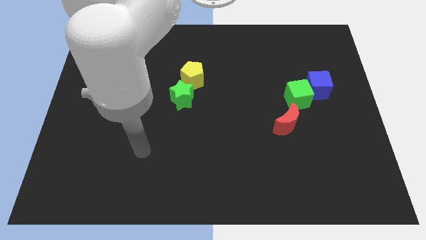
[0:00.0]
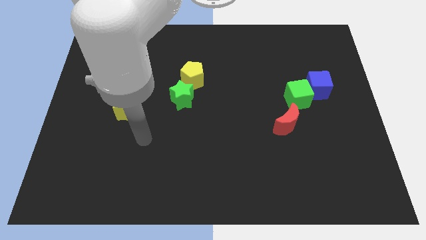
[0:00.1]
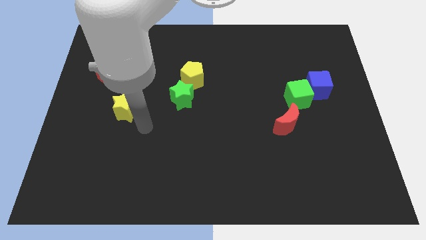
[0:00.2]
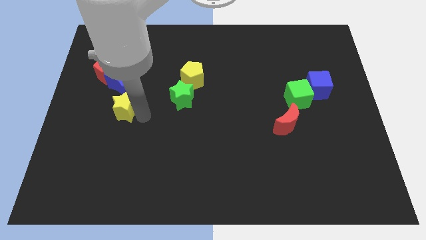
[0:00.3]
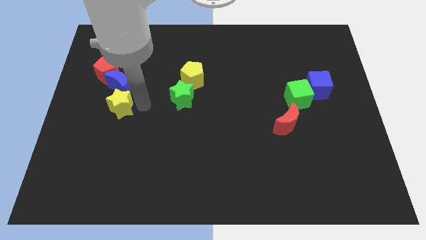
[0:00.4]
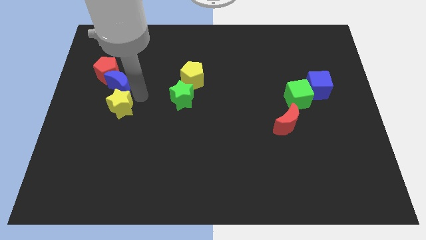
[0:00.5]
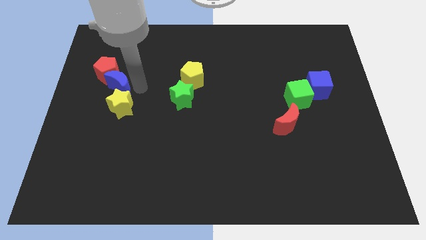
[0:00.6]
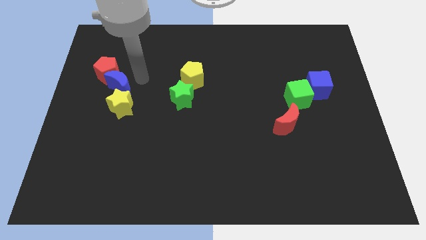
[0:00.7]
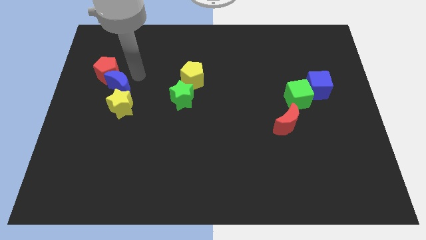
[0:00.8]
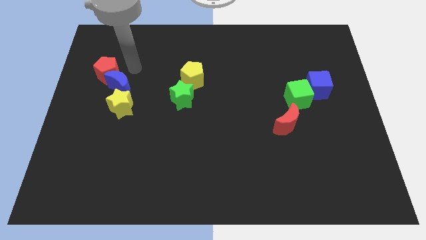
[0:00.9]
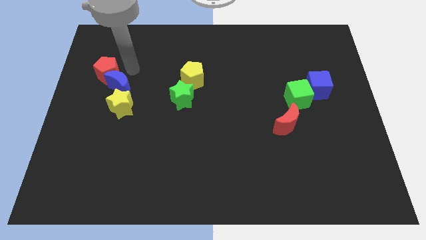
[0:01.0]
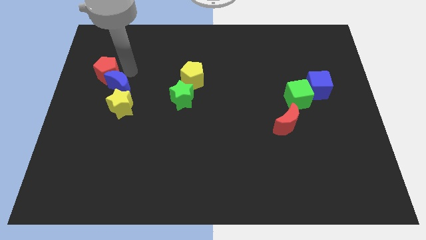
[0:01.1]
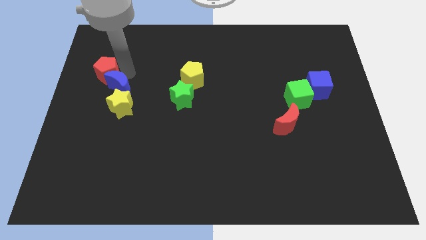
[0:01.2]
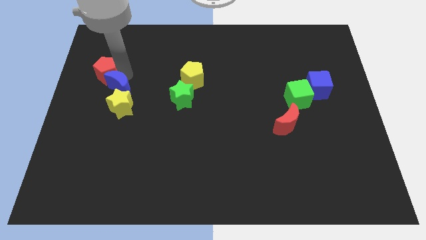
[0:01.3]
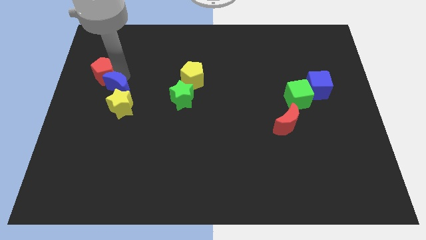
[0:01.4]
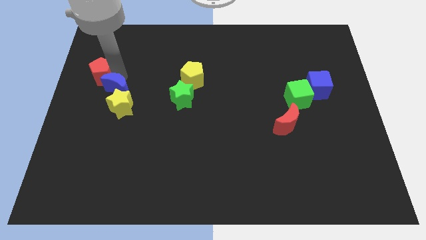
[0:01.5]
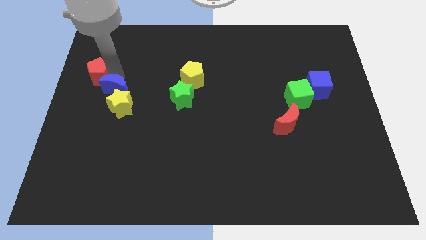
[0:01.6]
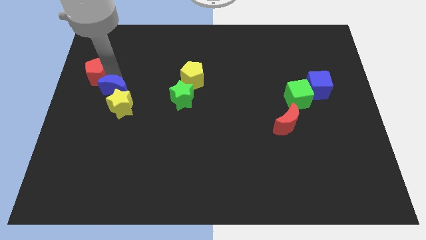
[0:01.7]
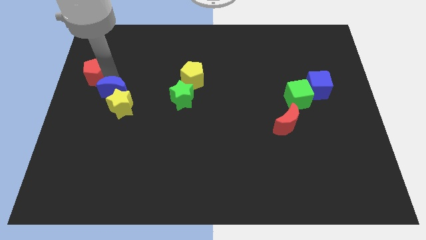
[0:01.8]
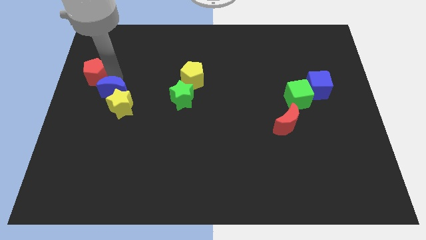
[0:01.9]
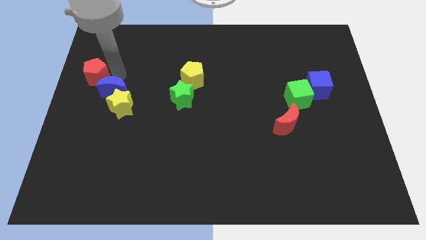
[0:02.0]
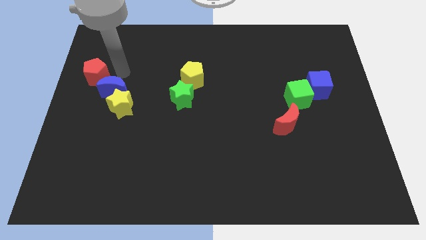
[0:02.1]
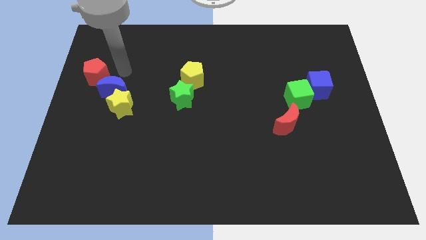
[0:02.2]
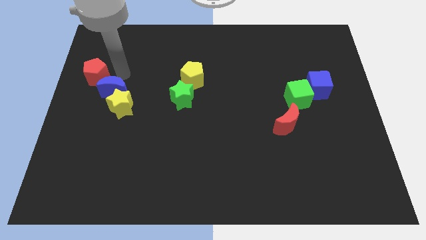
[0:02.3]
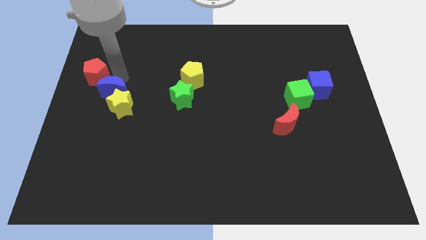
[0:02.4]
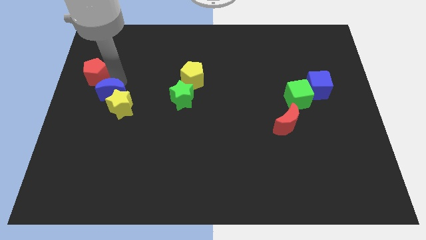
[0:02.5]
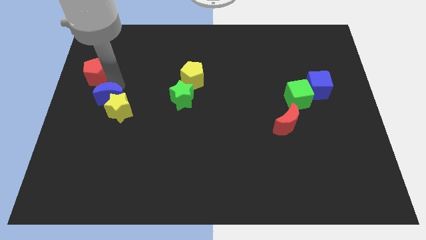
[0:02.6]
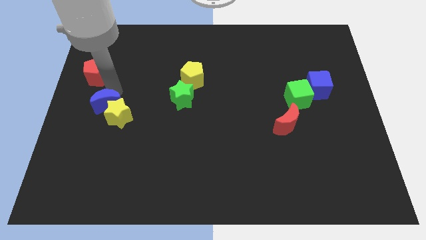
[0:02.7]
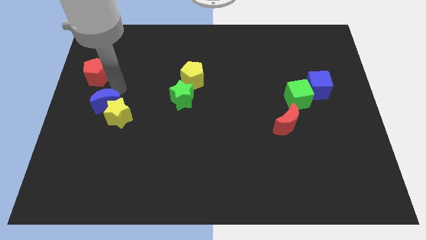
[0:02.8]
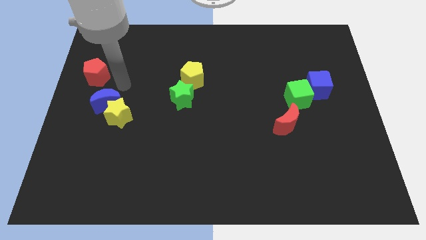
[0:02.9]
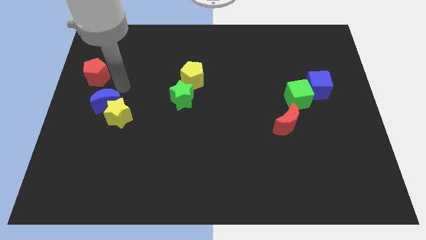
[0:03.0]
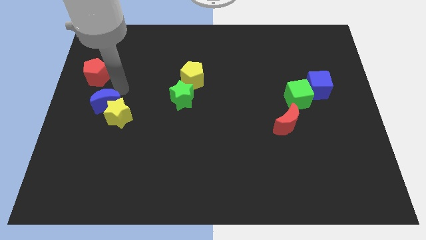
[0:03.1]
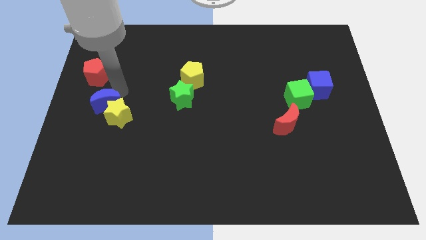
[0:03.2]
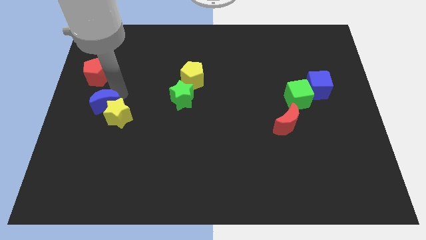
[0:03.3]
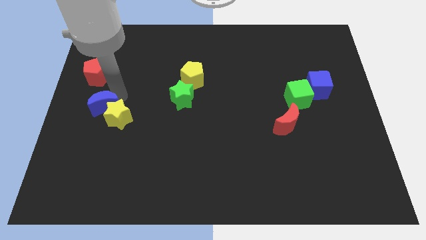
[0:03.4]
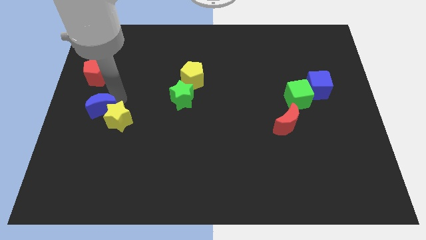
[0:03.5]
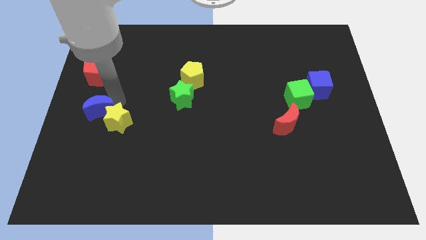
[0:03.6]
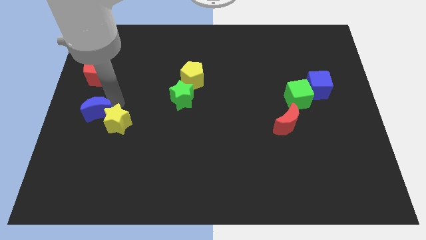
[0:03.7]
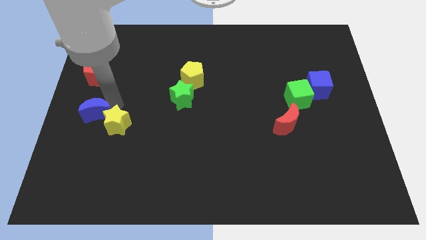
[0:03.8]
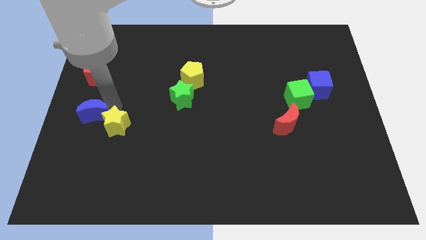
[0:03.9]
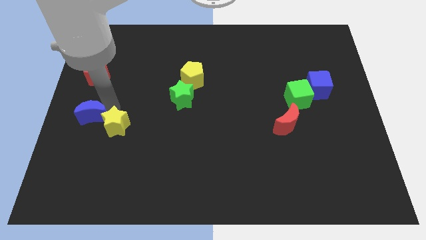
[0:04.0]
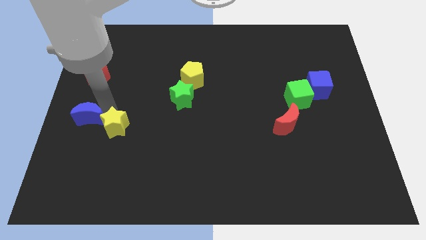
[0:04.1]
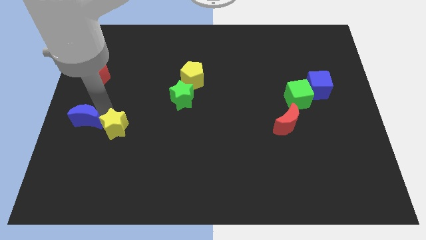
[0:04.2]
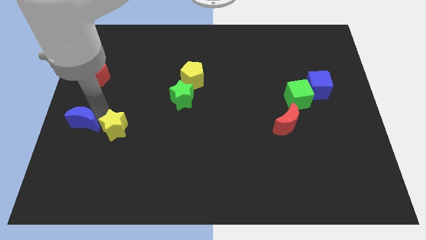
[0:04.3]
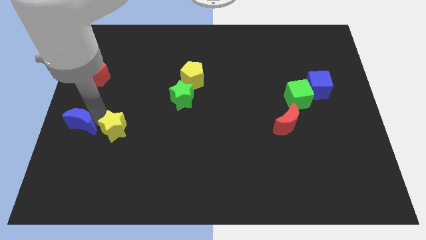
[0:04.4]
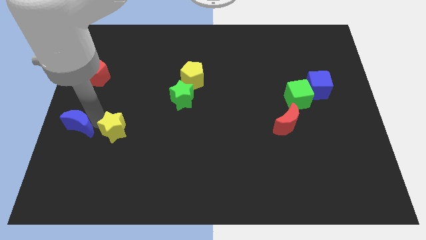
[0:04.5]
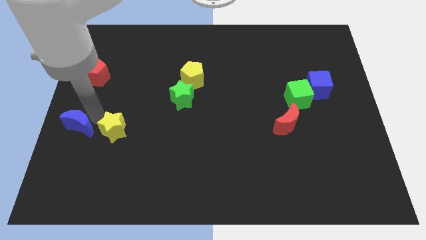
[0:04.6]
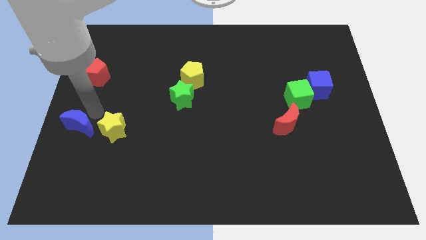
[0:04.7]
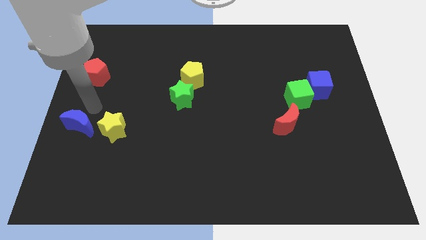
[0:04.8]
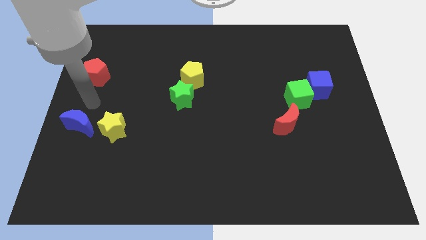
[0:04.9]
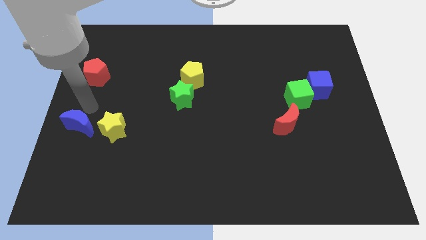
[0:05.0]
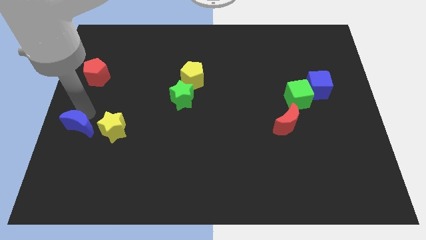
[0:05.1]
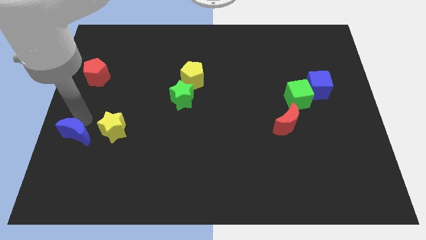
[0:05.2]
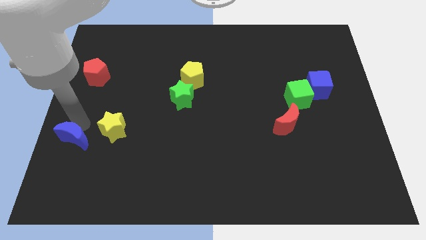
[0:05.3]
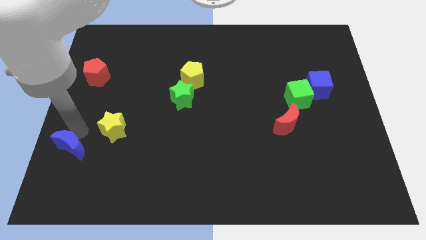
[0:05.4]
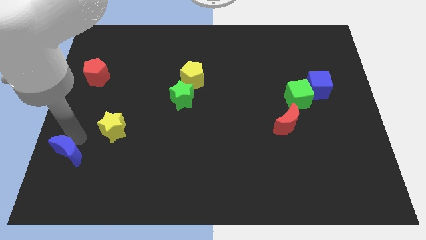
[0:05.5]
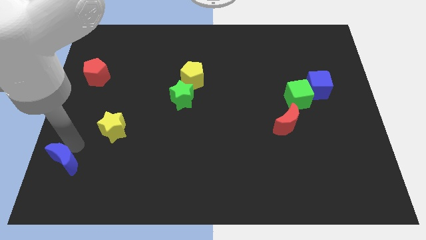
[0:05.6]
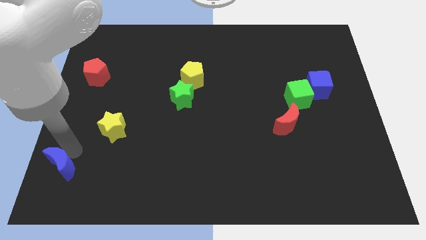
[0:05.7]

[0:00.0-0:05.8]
move the blue moon to the bottom left

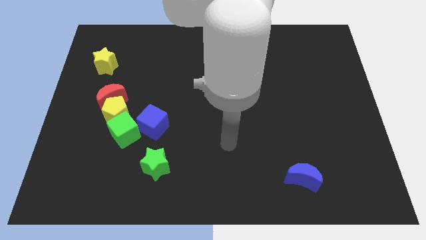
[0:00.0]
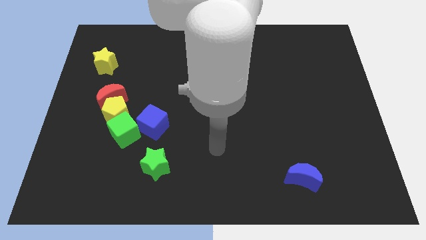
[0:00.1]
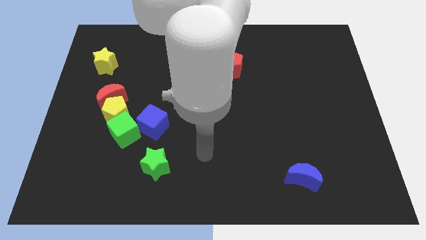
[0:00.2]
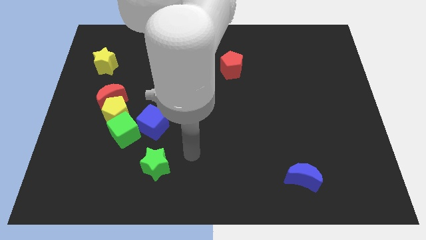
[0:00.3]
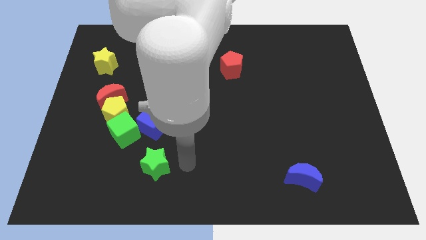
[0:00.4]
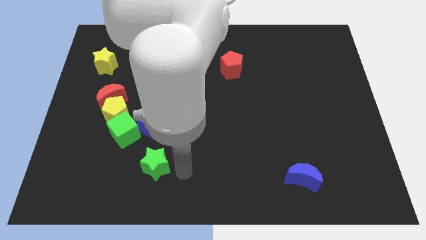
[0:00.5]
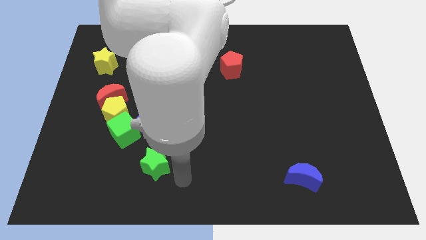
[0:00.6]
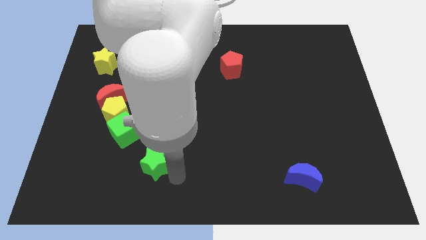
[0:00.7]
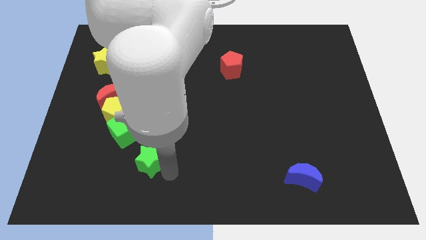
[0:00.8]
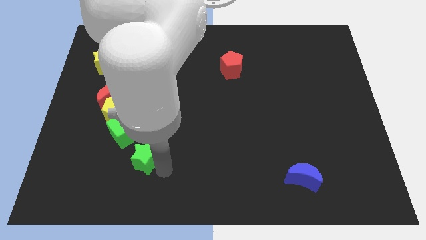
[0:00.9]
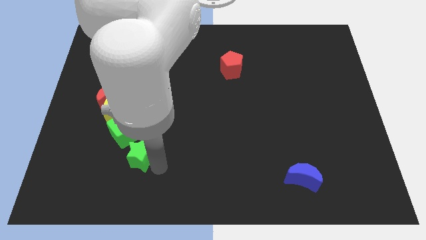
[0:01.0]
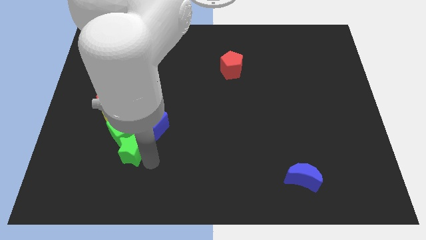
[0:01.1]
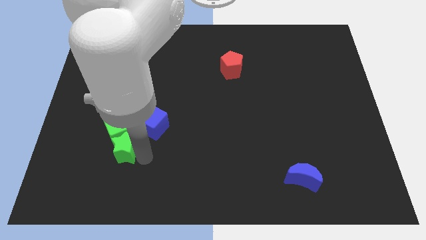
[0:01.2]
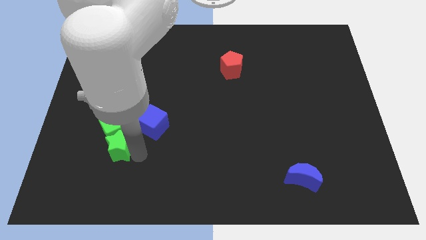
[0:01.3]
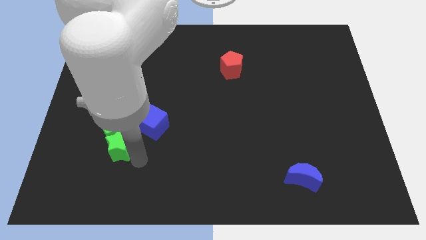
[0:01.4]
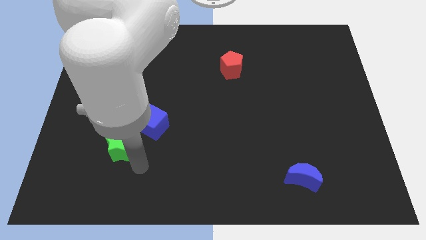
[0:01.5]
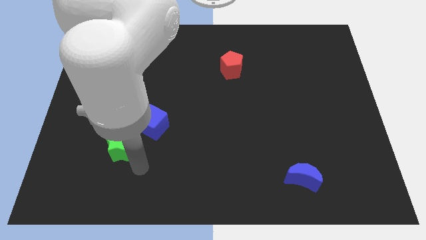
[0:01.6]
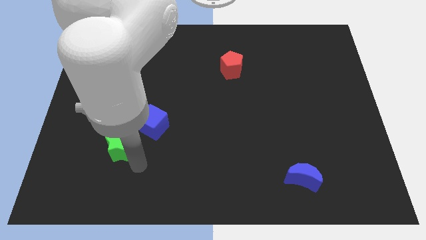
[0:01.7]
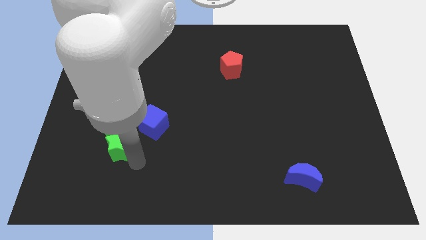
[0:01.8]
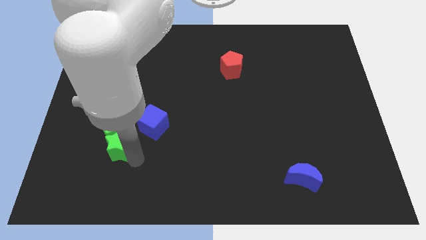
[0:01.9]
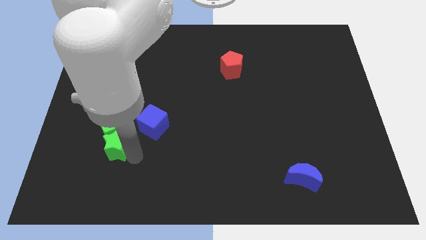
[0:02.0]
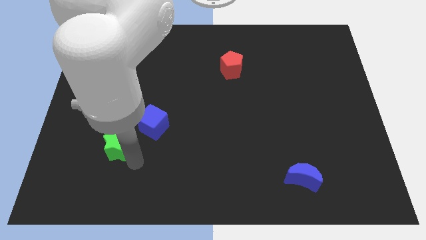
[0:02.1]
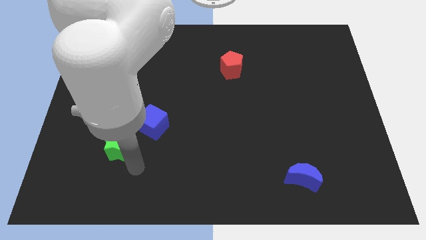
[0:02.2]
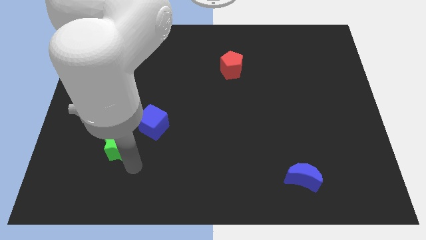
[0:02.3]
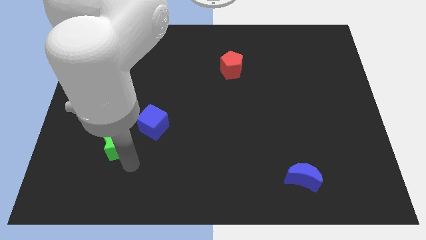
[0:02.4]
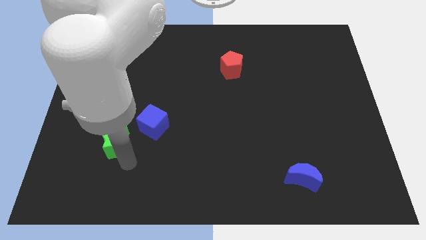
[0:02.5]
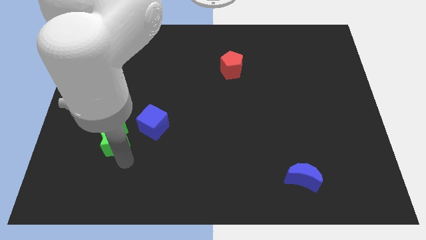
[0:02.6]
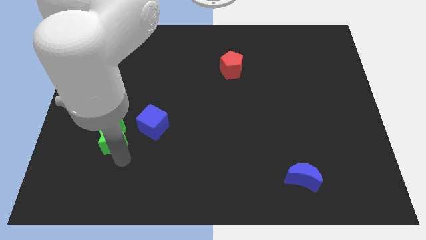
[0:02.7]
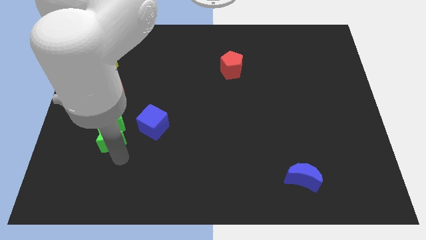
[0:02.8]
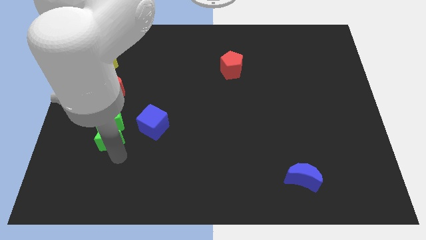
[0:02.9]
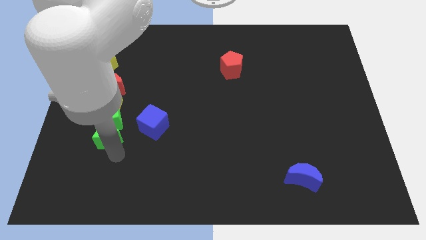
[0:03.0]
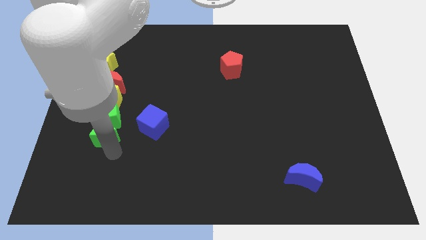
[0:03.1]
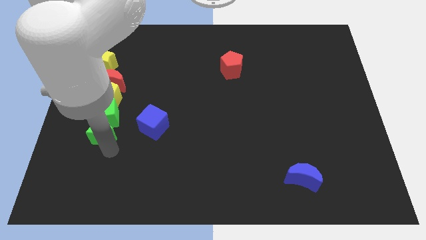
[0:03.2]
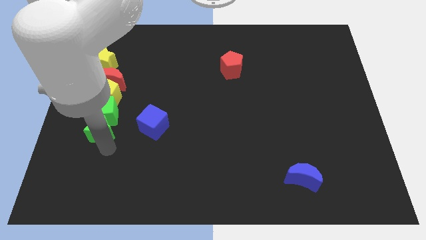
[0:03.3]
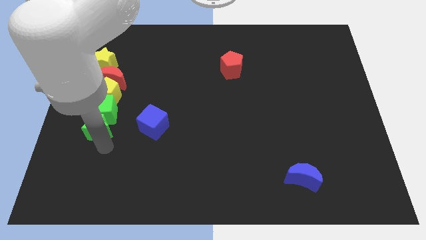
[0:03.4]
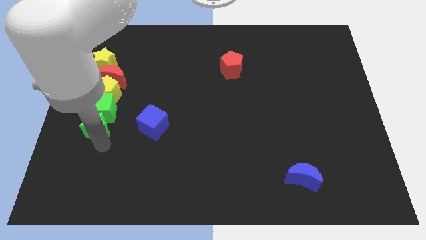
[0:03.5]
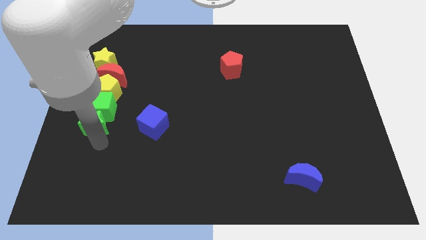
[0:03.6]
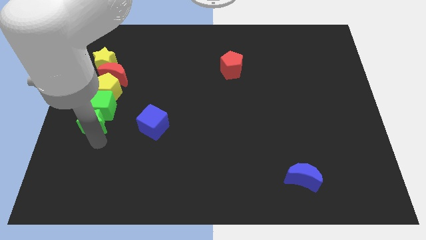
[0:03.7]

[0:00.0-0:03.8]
slide the green star to the center left
